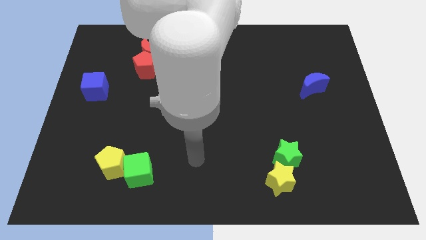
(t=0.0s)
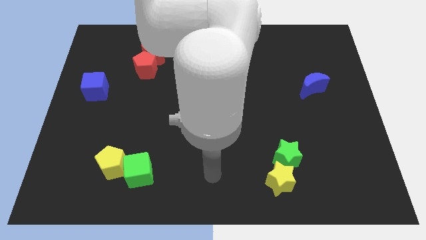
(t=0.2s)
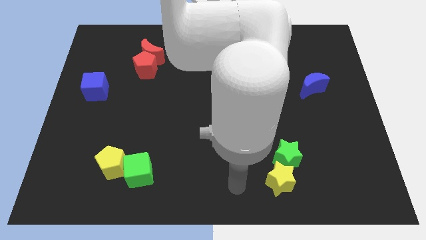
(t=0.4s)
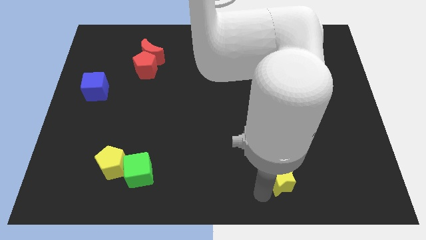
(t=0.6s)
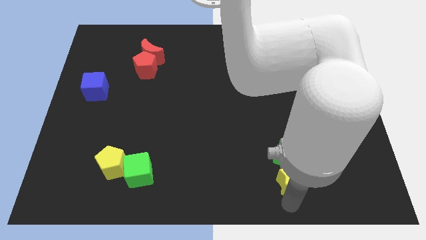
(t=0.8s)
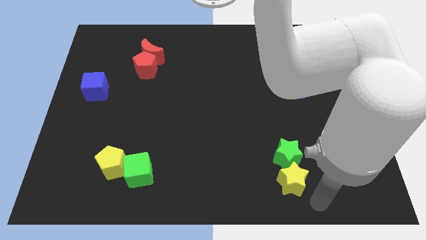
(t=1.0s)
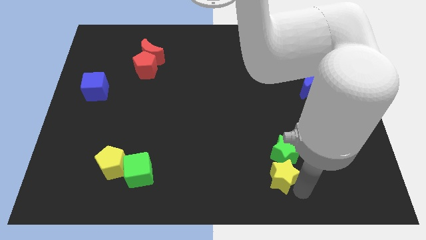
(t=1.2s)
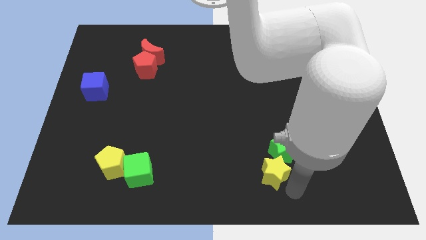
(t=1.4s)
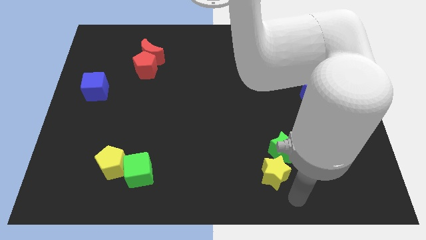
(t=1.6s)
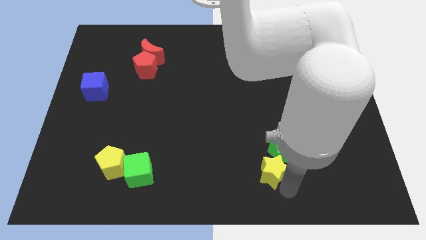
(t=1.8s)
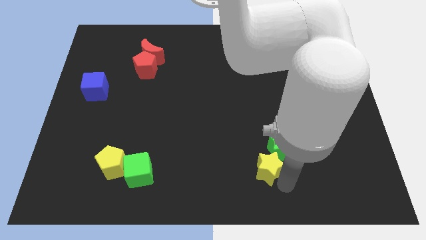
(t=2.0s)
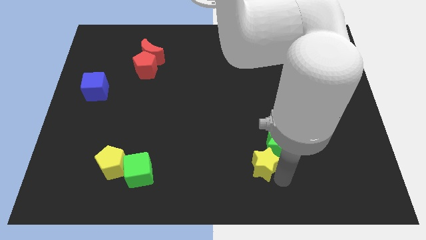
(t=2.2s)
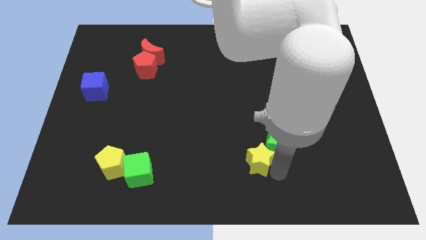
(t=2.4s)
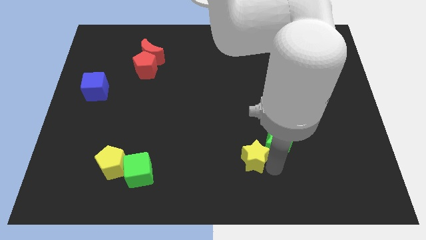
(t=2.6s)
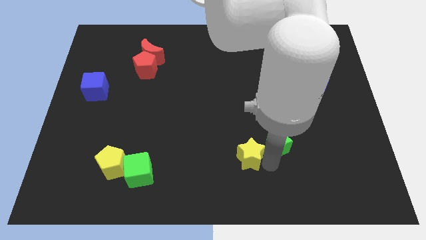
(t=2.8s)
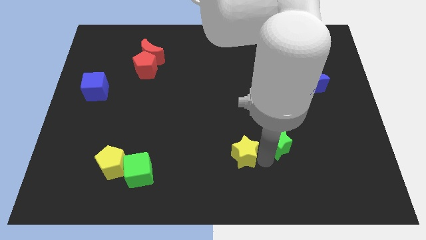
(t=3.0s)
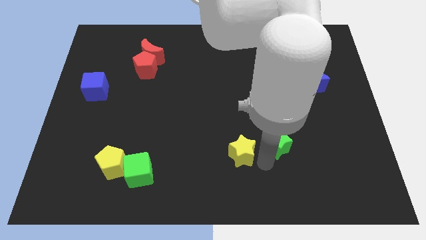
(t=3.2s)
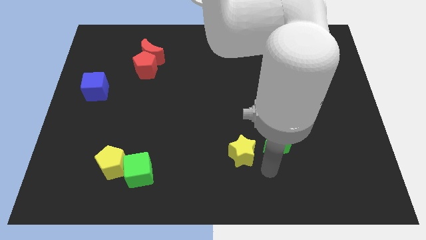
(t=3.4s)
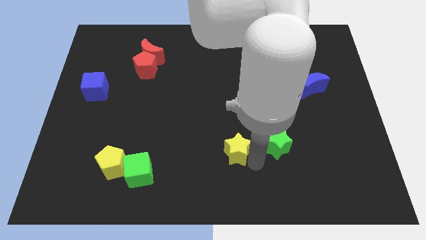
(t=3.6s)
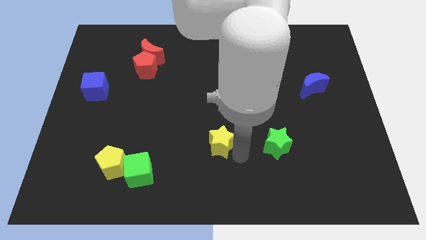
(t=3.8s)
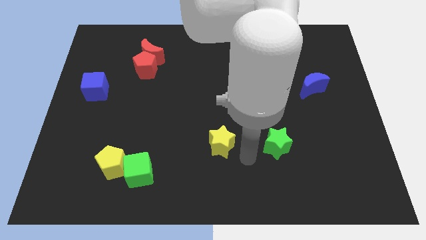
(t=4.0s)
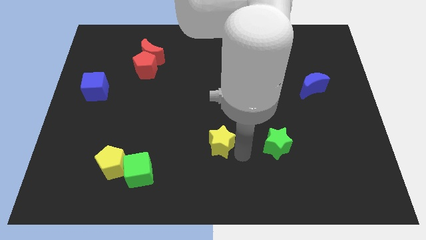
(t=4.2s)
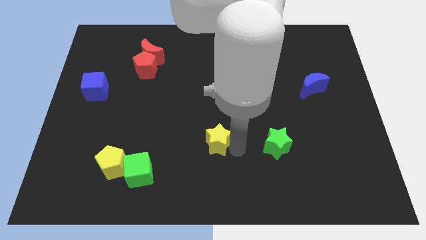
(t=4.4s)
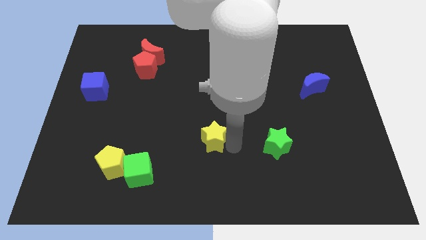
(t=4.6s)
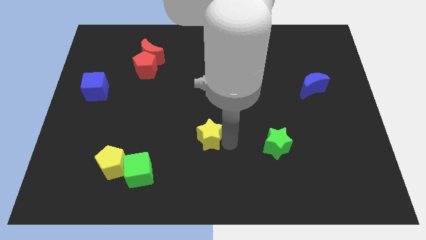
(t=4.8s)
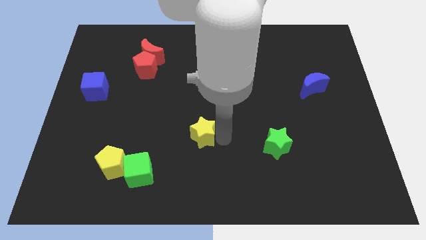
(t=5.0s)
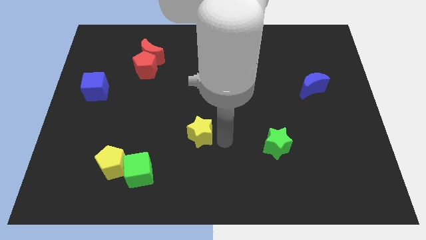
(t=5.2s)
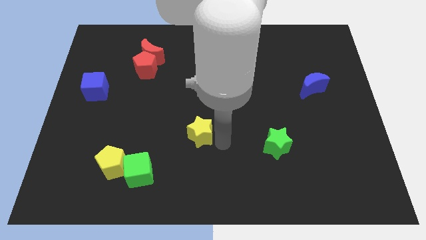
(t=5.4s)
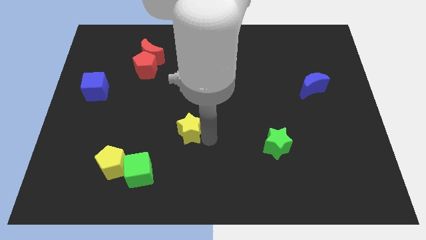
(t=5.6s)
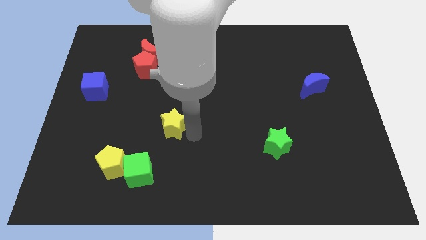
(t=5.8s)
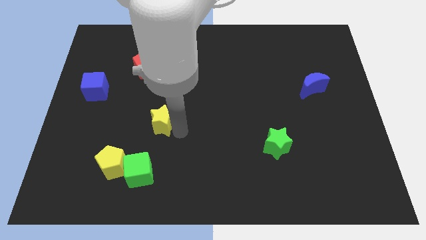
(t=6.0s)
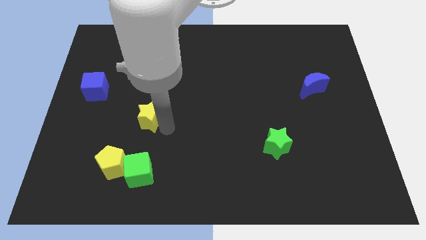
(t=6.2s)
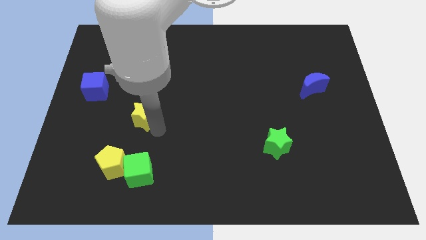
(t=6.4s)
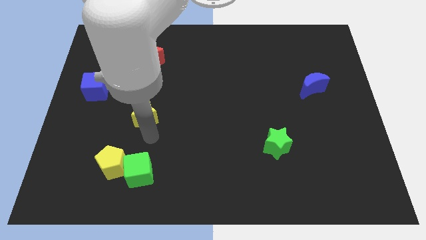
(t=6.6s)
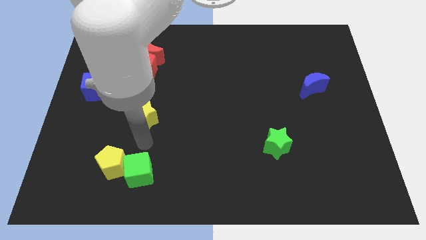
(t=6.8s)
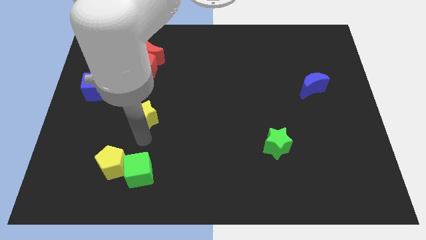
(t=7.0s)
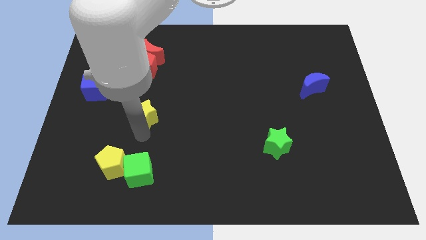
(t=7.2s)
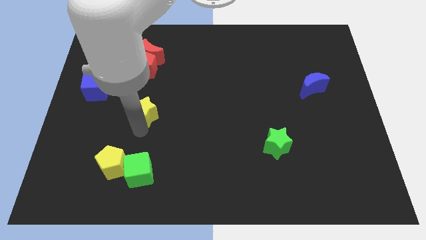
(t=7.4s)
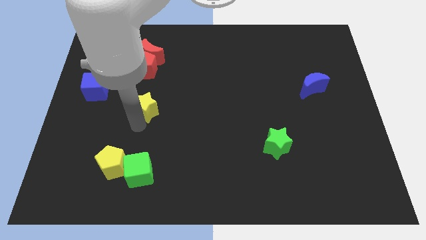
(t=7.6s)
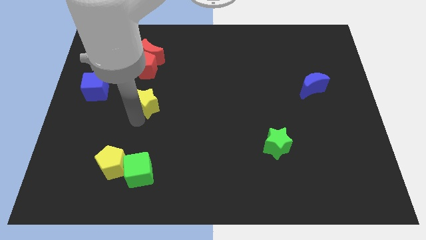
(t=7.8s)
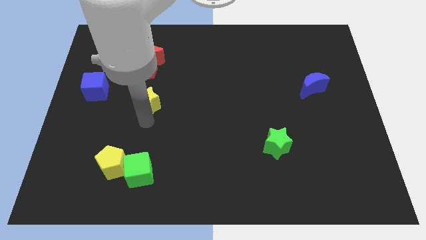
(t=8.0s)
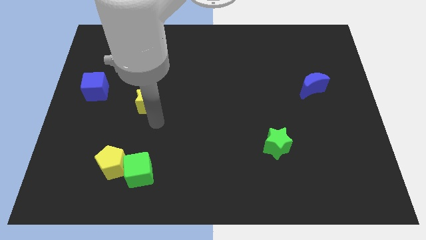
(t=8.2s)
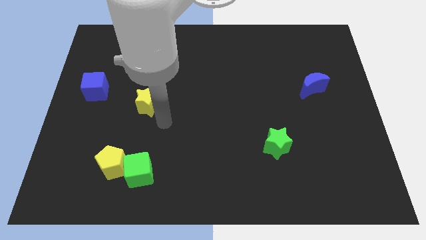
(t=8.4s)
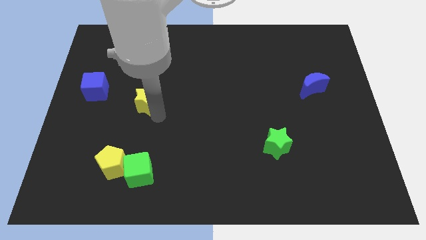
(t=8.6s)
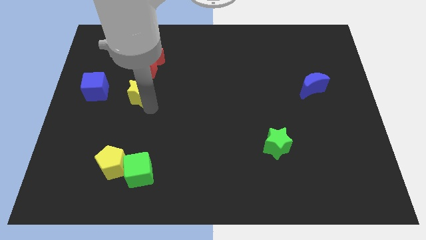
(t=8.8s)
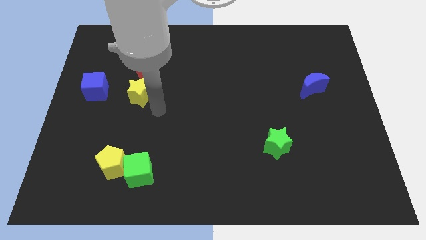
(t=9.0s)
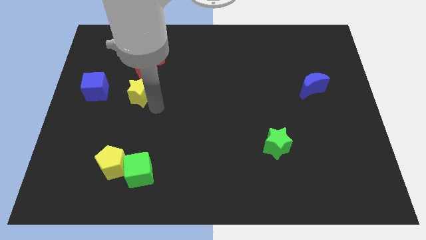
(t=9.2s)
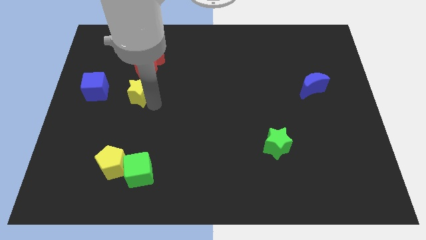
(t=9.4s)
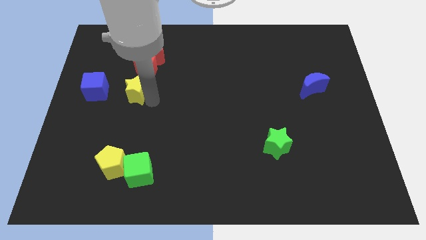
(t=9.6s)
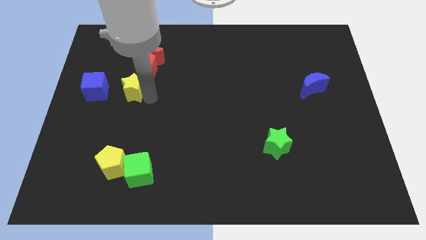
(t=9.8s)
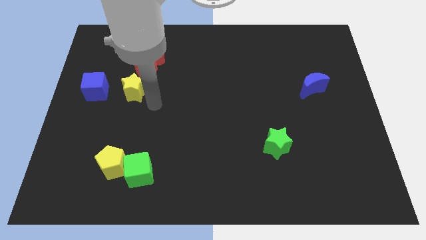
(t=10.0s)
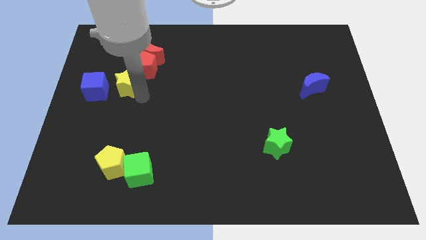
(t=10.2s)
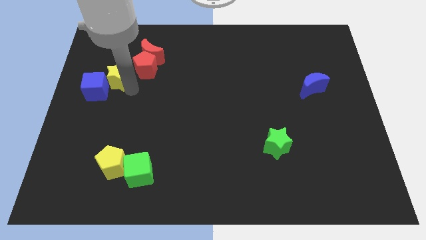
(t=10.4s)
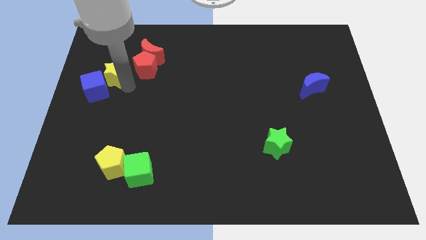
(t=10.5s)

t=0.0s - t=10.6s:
slide the yellow star to the top of the blue cube

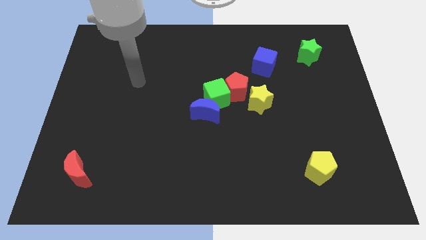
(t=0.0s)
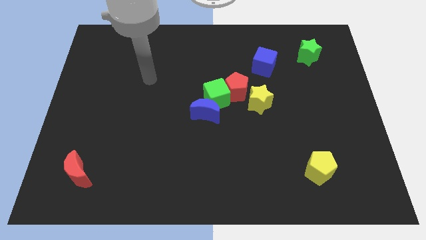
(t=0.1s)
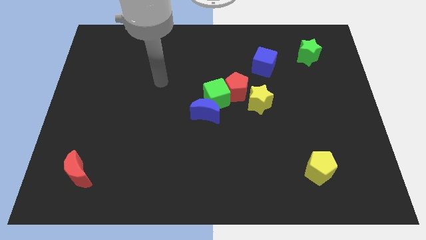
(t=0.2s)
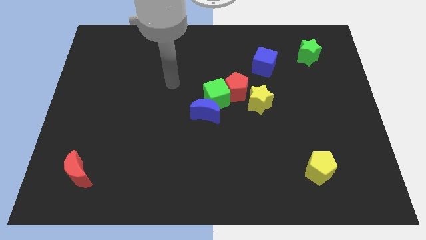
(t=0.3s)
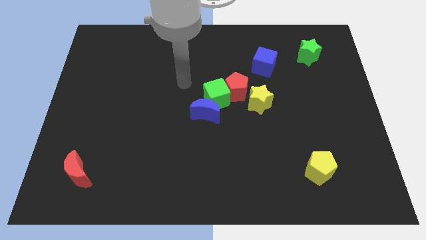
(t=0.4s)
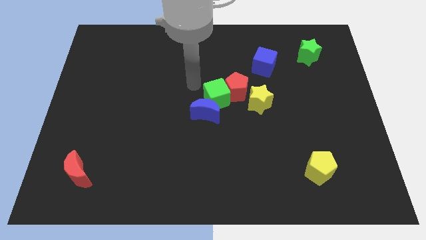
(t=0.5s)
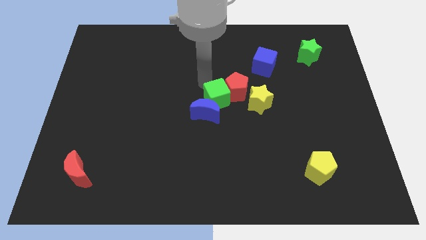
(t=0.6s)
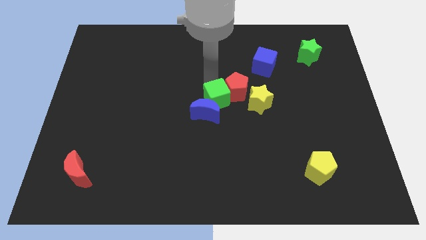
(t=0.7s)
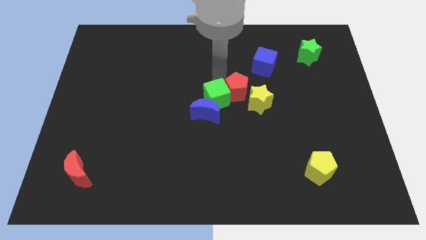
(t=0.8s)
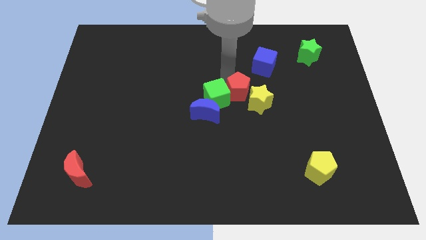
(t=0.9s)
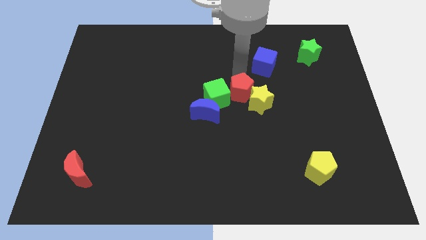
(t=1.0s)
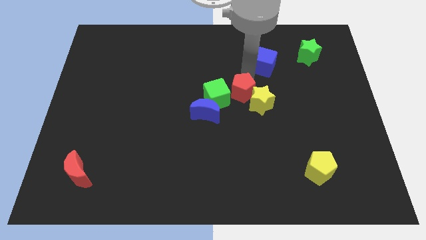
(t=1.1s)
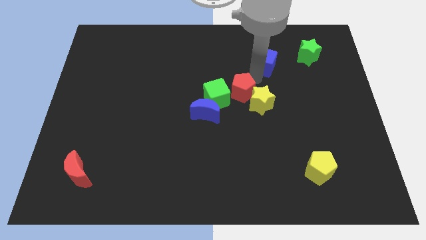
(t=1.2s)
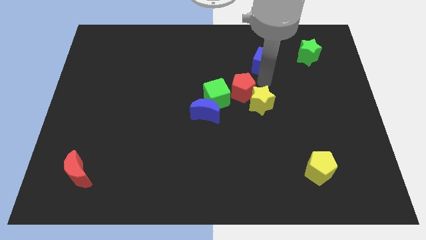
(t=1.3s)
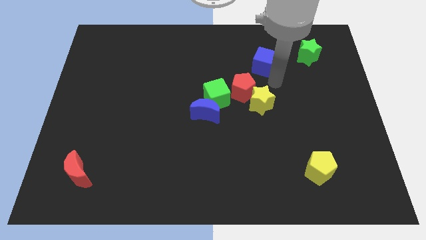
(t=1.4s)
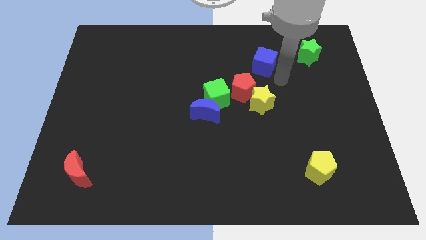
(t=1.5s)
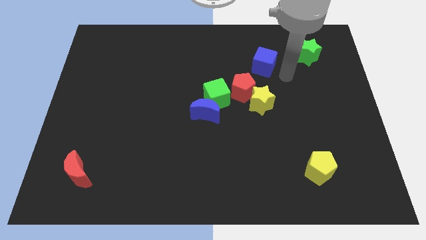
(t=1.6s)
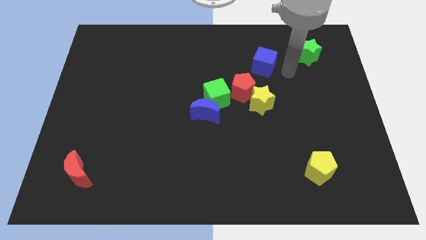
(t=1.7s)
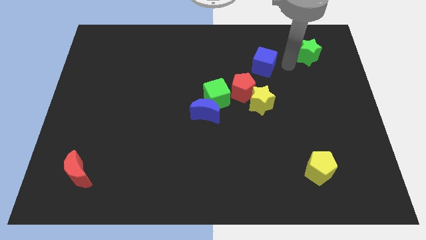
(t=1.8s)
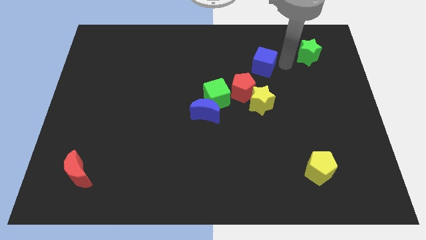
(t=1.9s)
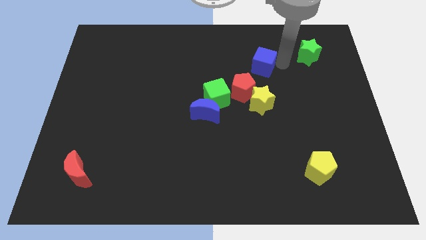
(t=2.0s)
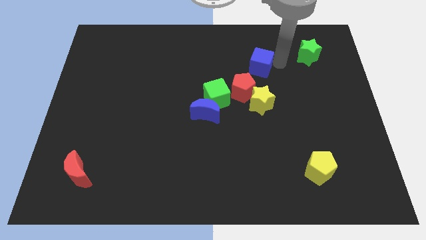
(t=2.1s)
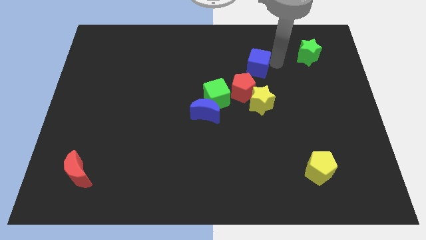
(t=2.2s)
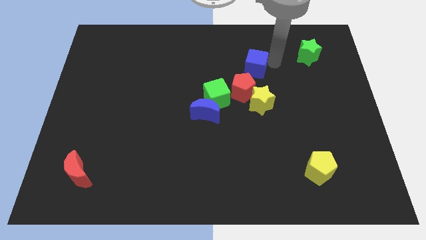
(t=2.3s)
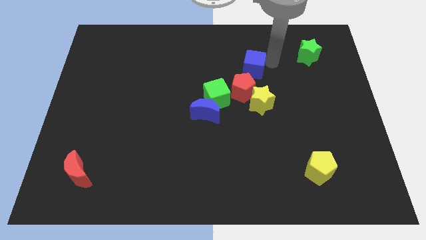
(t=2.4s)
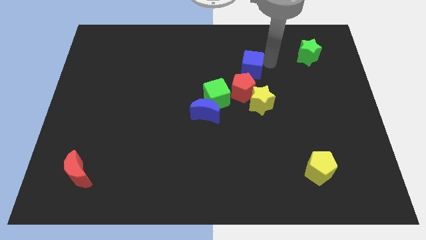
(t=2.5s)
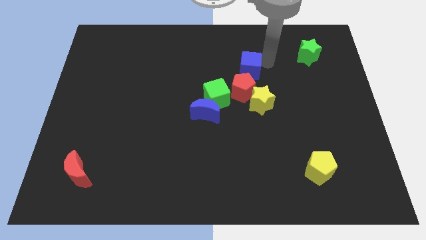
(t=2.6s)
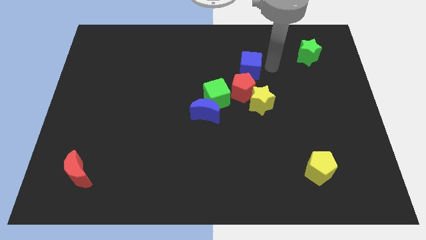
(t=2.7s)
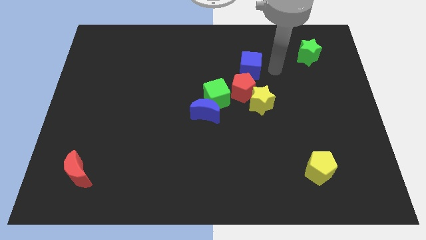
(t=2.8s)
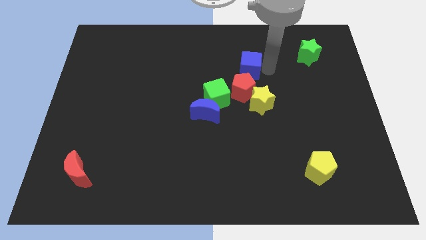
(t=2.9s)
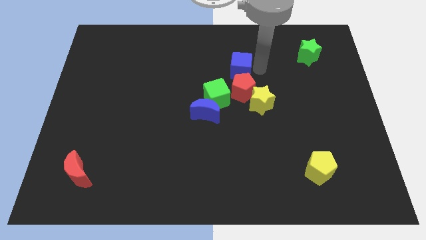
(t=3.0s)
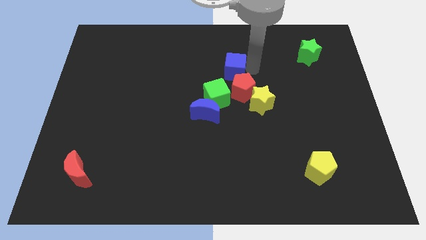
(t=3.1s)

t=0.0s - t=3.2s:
push the blue cube to the top of the green cube
